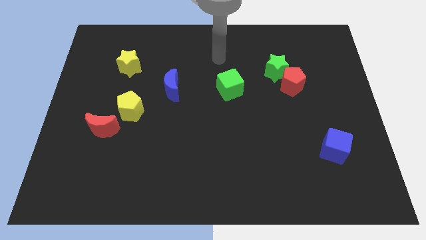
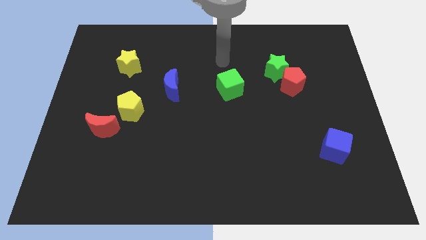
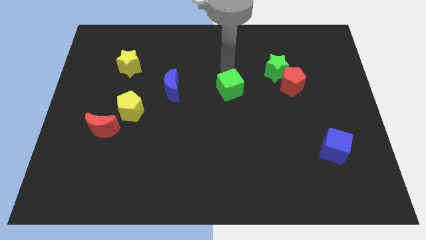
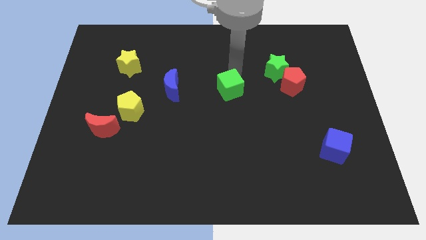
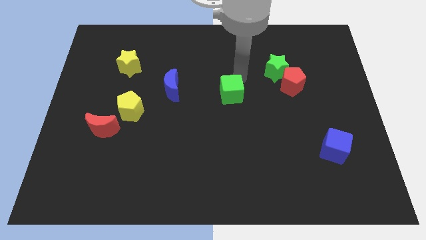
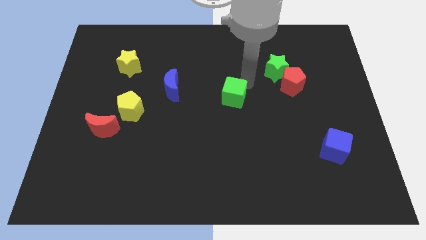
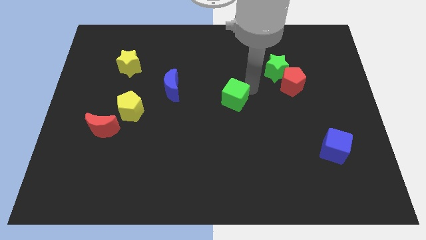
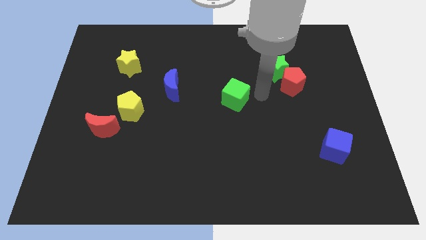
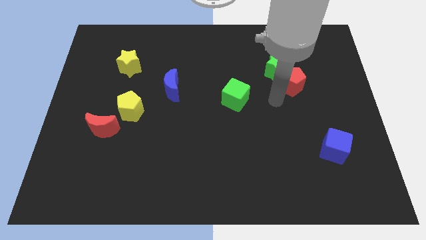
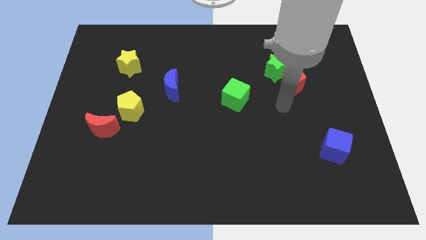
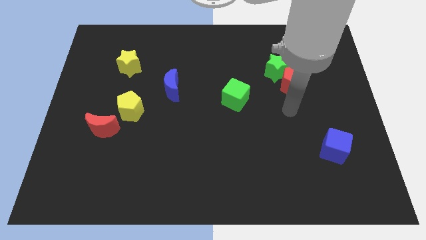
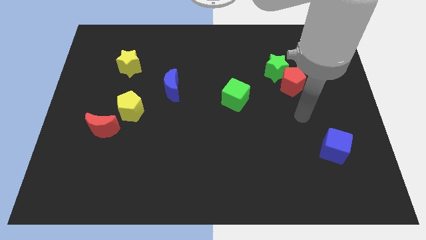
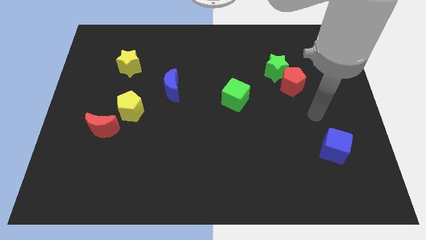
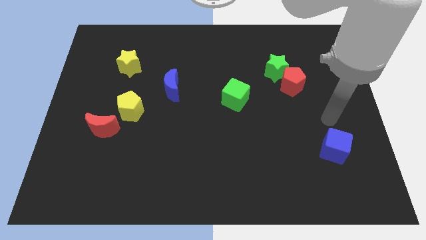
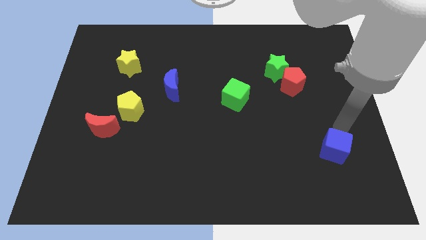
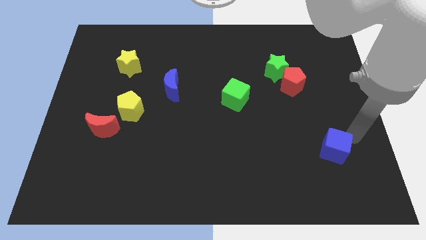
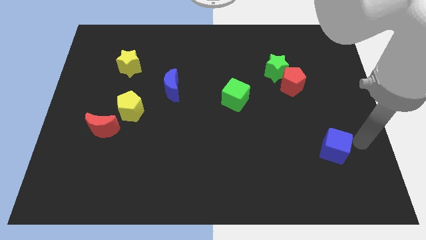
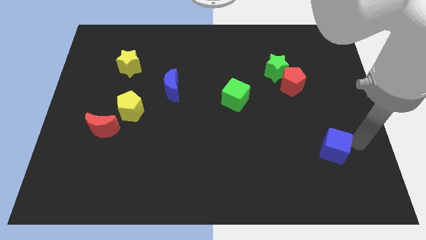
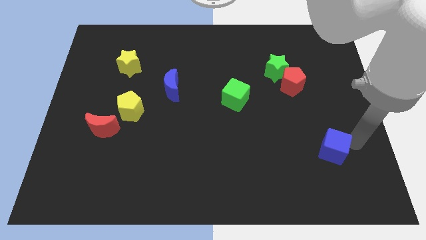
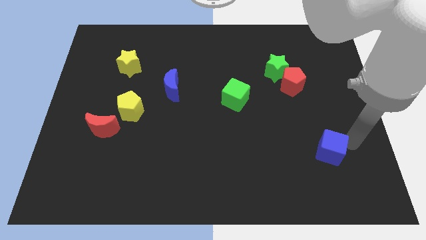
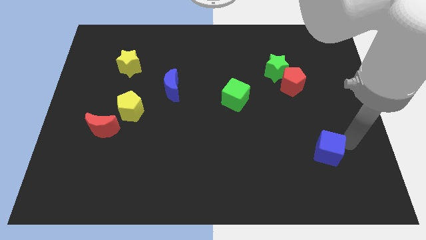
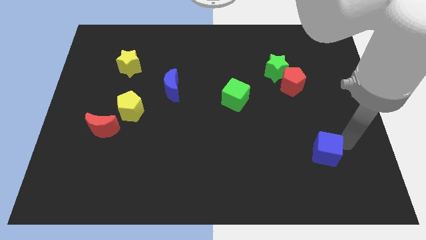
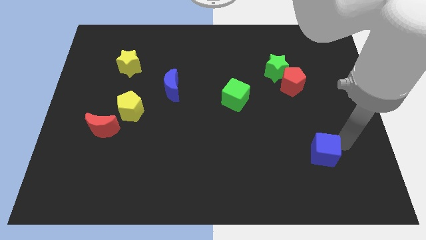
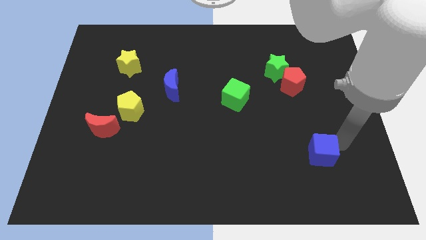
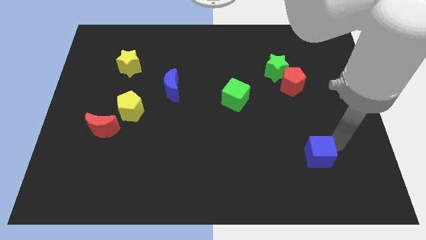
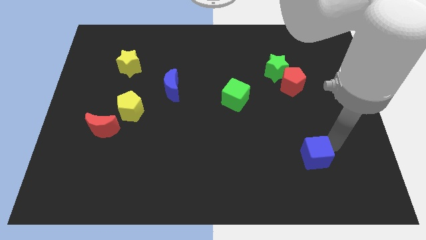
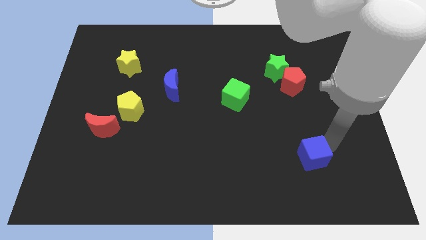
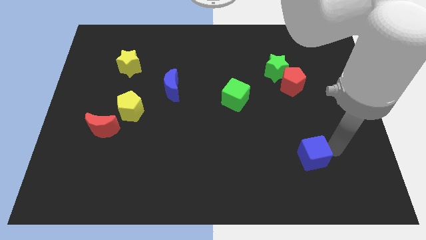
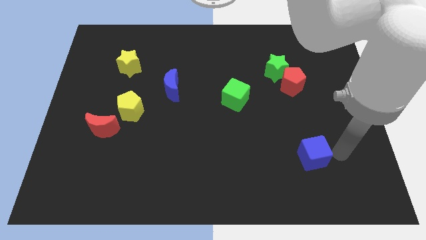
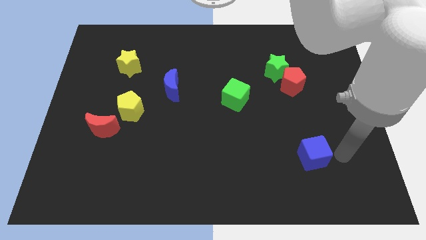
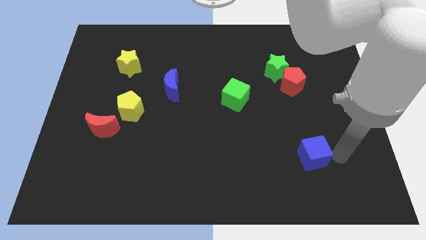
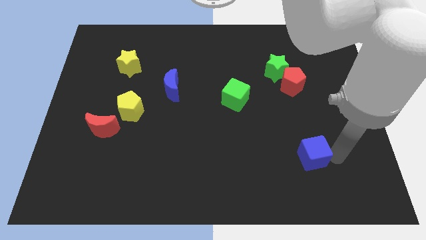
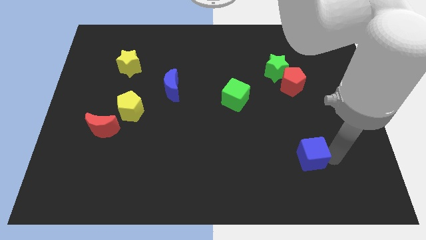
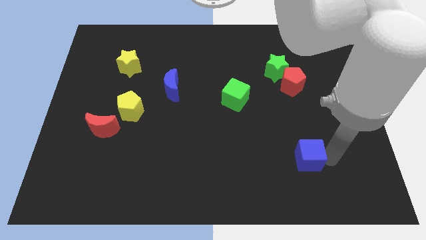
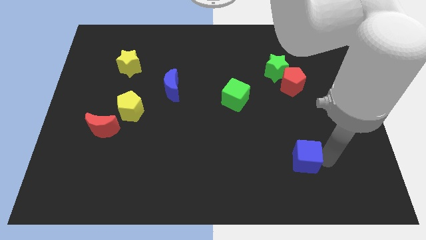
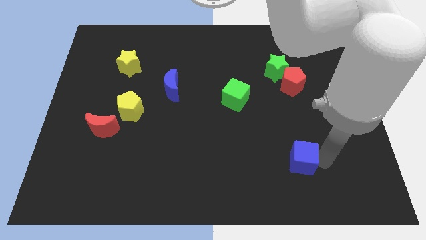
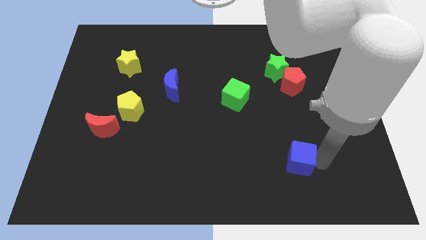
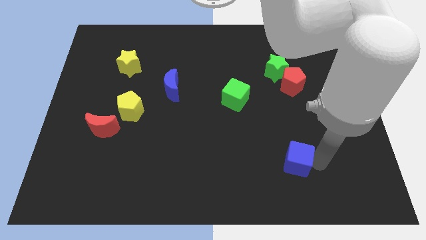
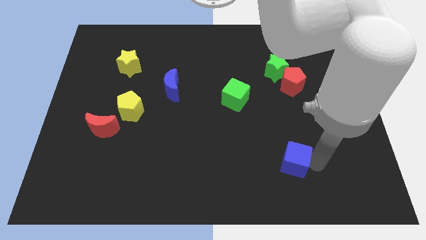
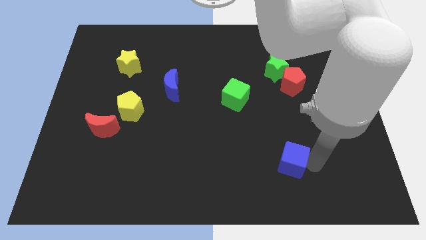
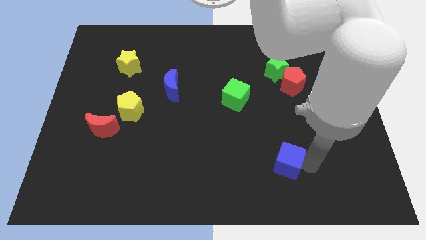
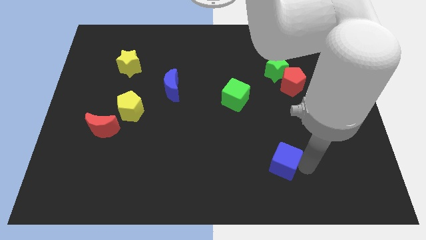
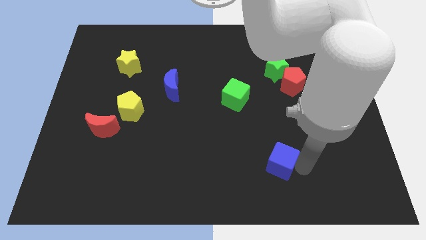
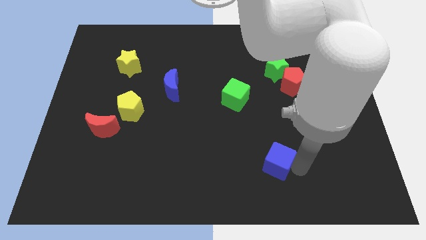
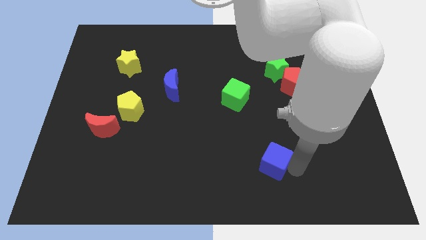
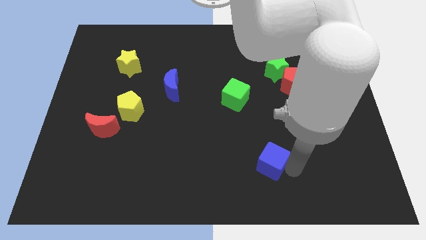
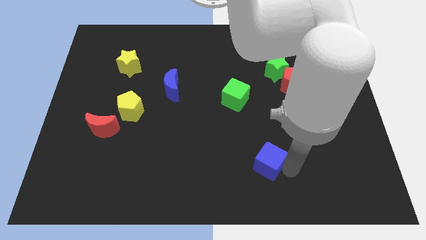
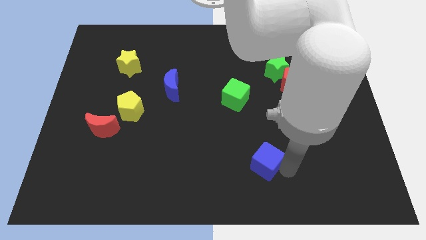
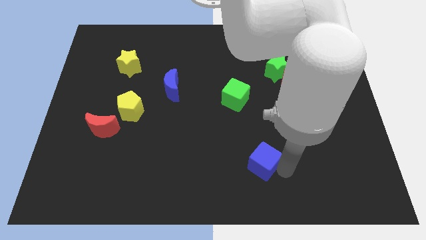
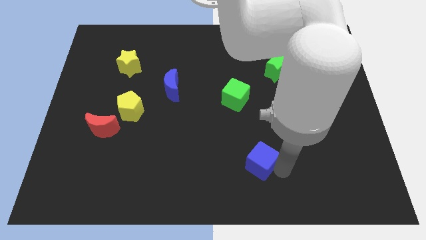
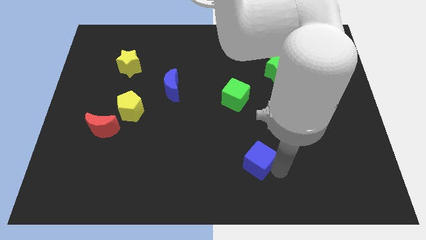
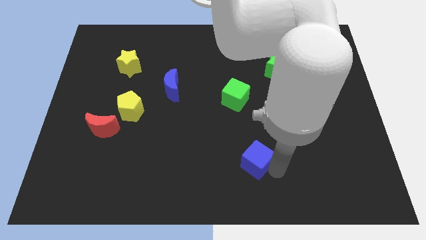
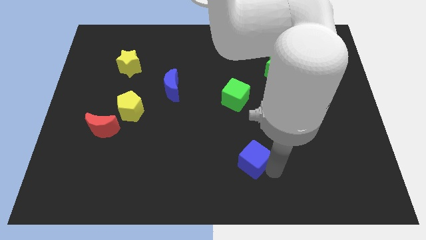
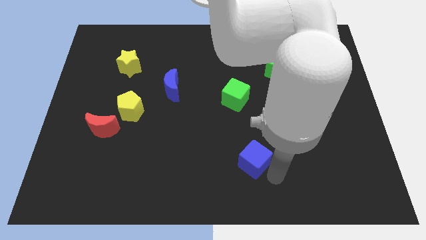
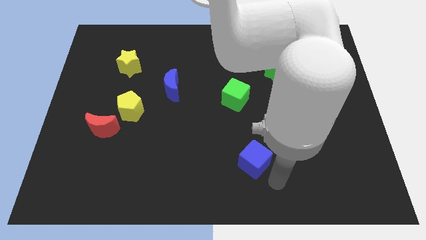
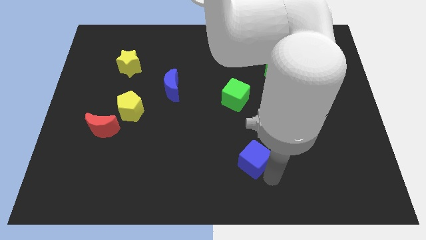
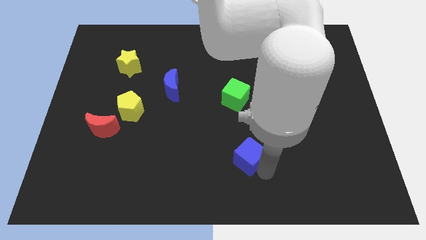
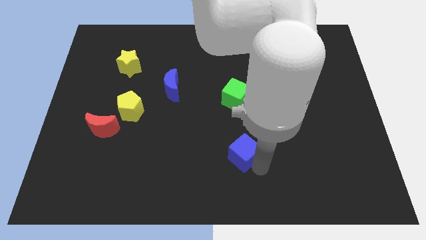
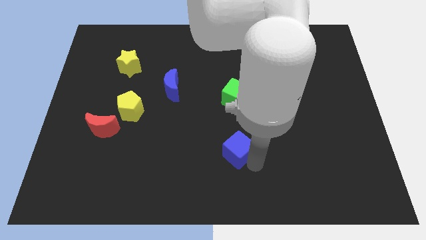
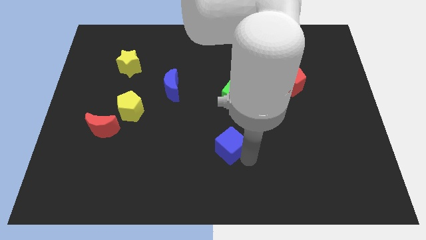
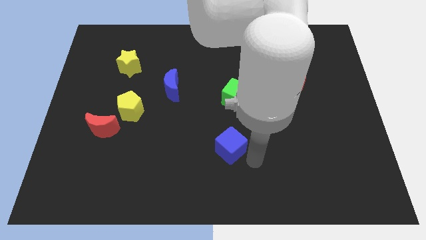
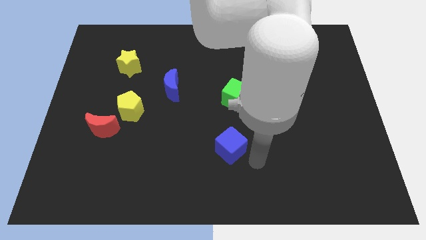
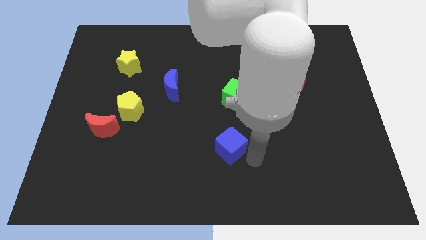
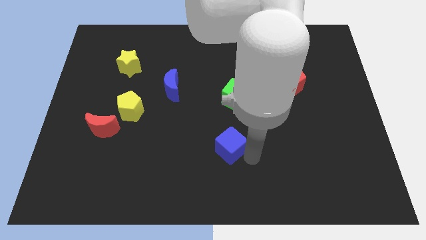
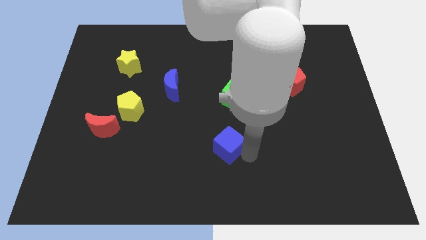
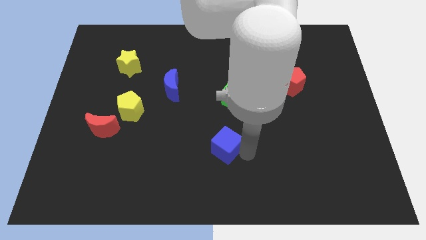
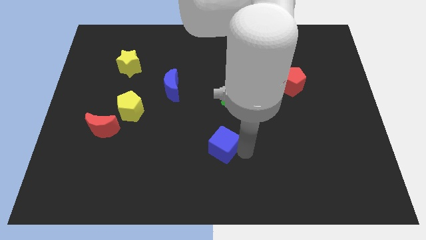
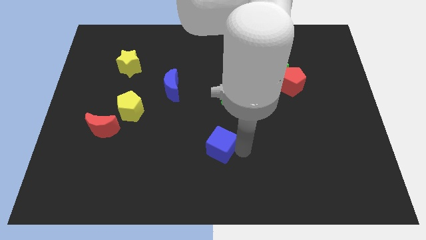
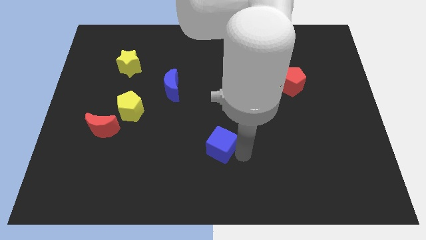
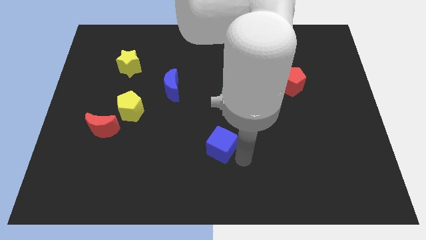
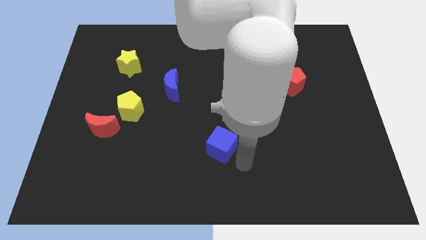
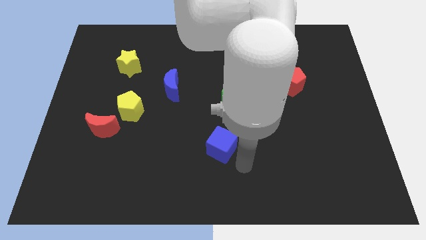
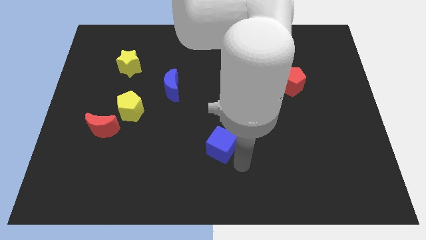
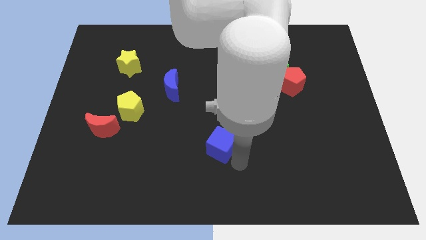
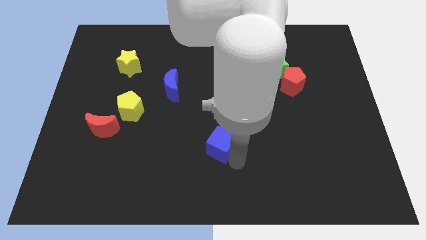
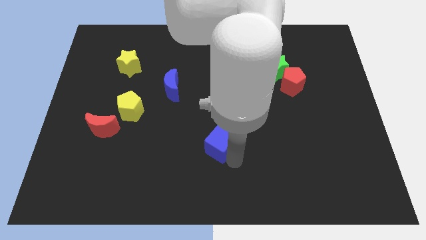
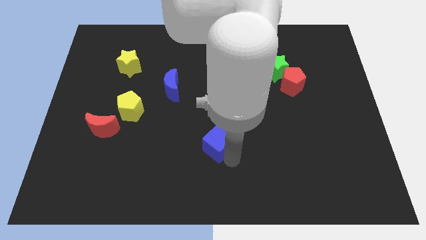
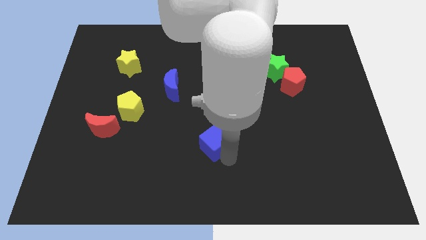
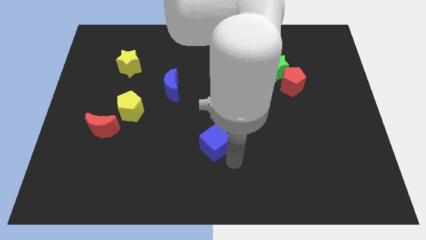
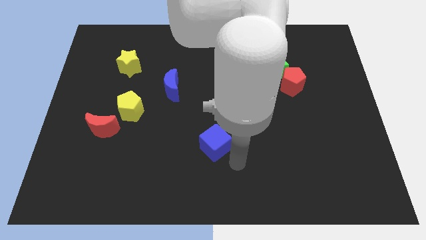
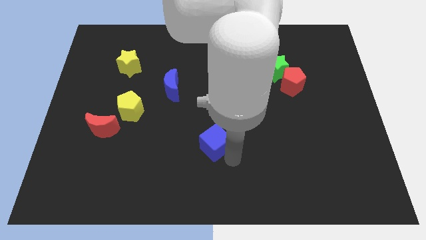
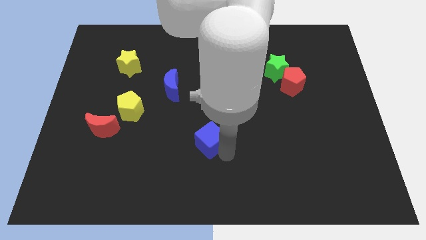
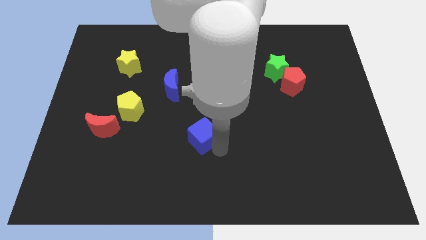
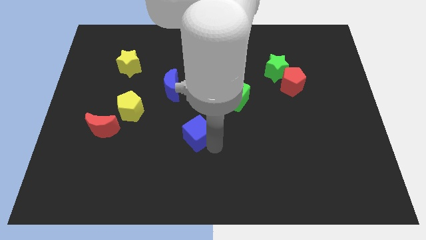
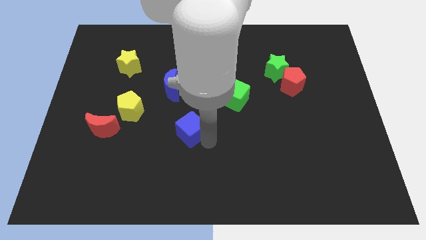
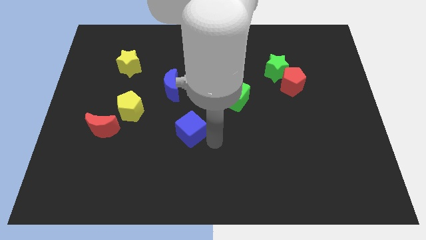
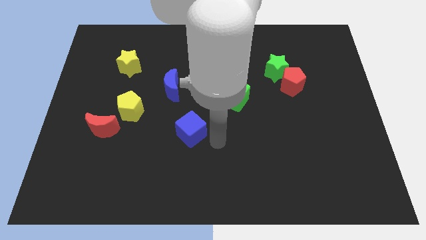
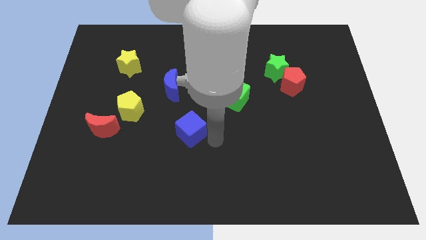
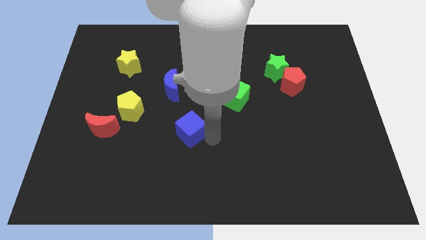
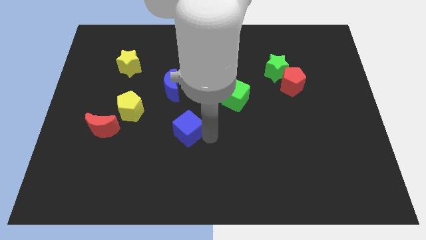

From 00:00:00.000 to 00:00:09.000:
move the blue cube to the bottom side of the blue moon
